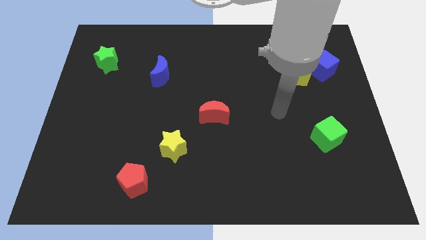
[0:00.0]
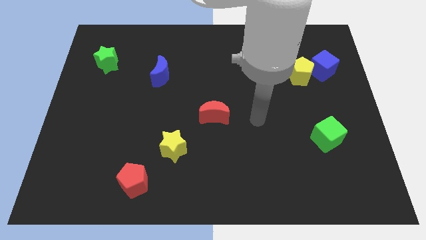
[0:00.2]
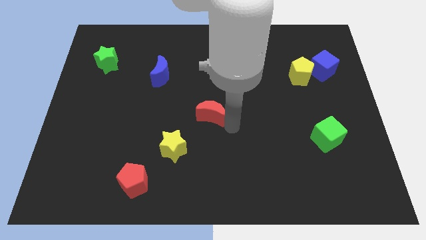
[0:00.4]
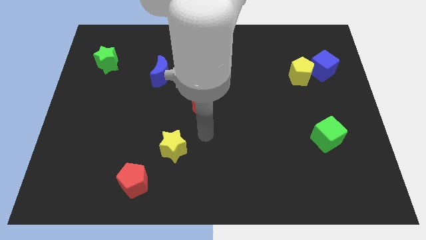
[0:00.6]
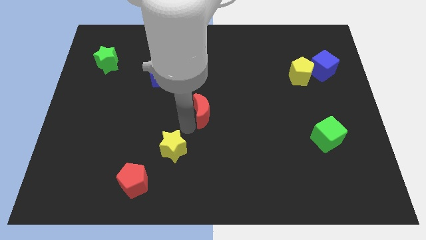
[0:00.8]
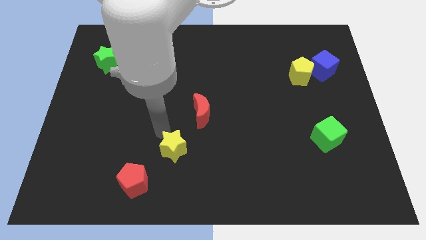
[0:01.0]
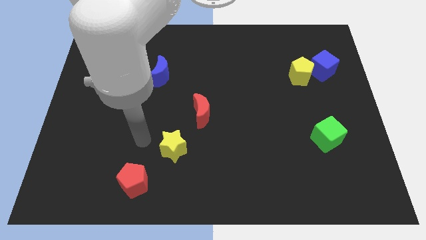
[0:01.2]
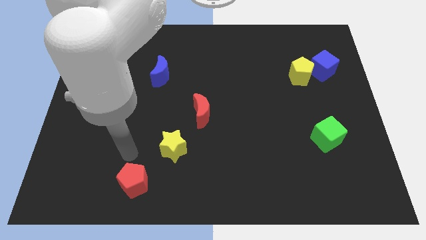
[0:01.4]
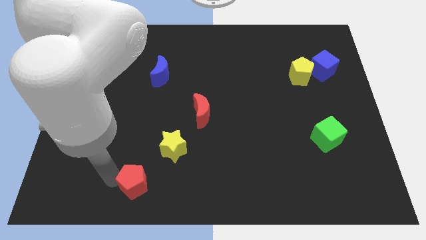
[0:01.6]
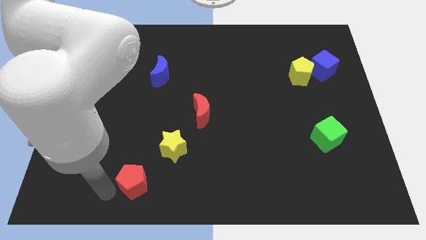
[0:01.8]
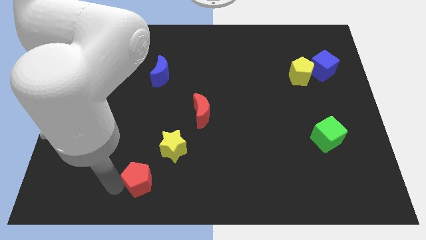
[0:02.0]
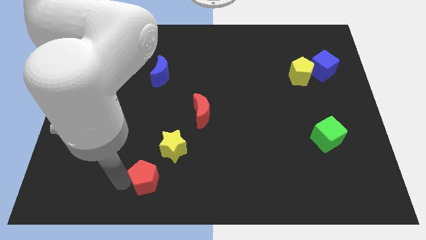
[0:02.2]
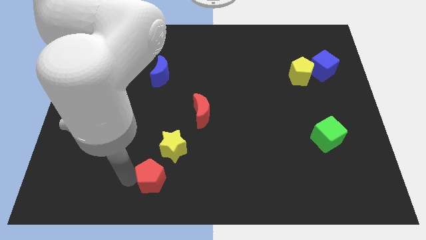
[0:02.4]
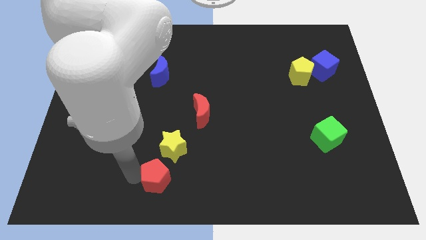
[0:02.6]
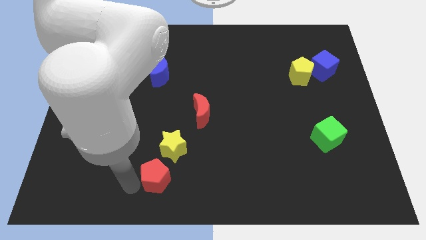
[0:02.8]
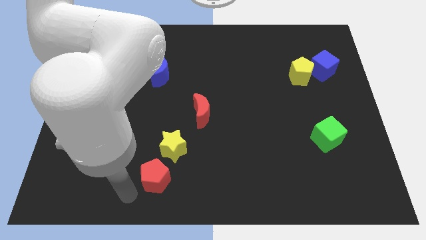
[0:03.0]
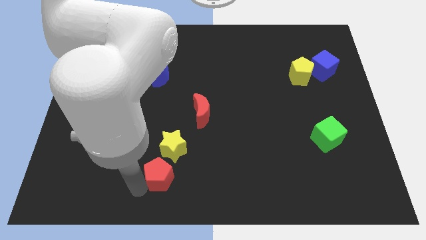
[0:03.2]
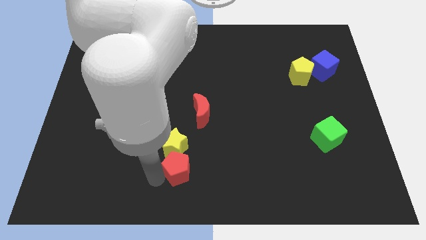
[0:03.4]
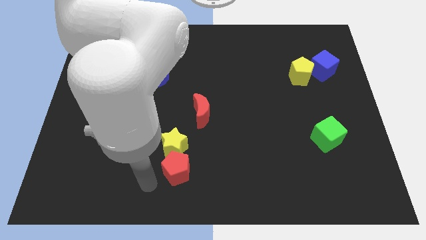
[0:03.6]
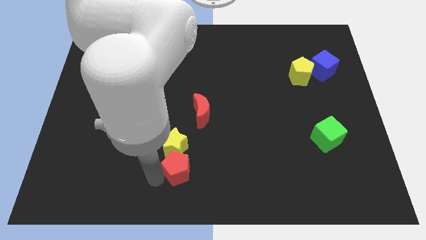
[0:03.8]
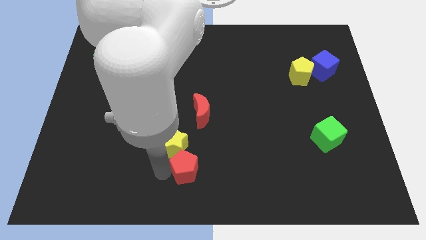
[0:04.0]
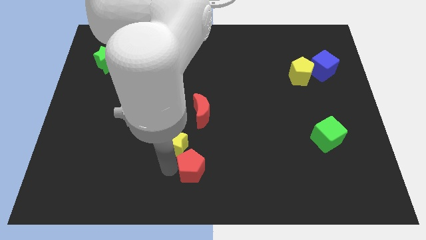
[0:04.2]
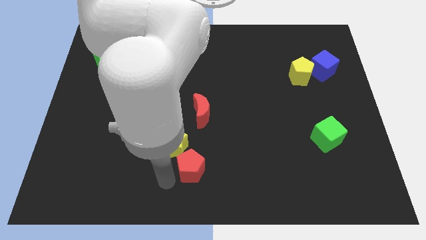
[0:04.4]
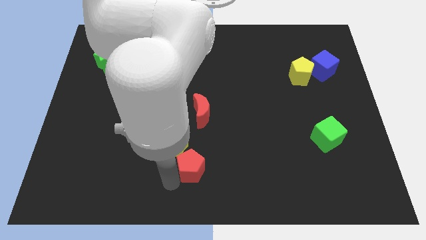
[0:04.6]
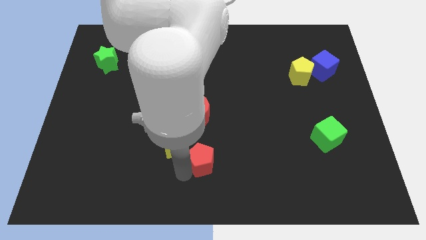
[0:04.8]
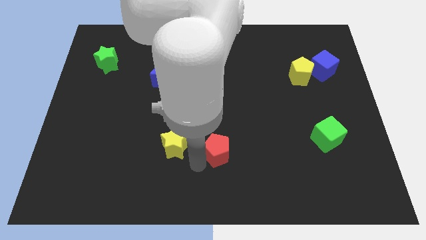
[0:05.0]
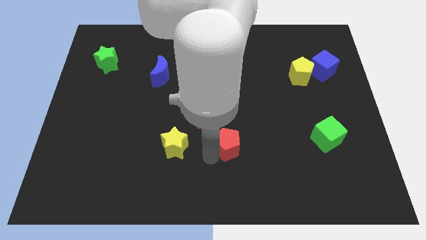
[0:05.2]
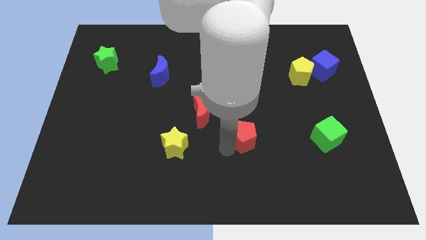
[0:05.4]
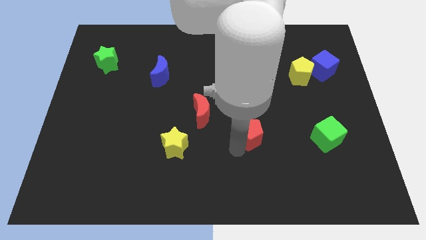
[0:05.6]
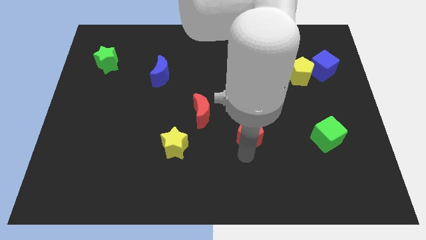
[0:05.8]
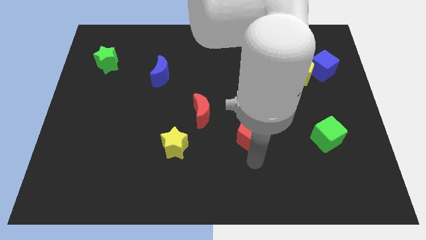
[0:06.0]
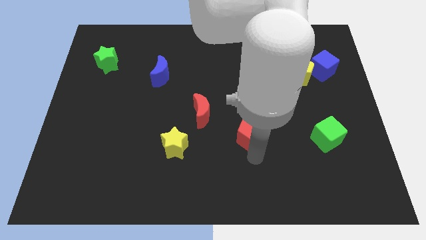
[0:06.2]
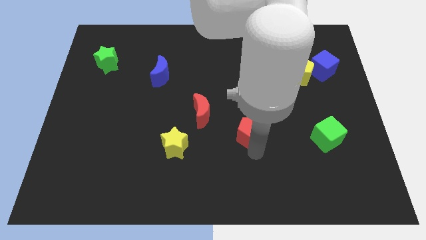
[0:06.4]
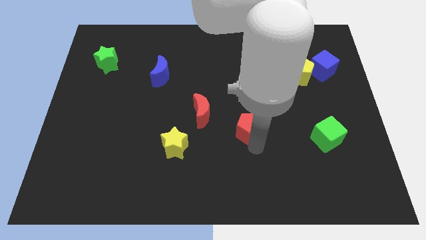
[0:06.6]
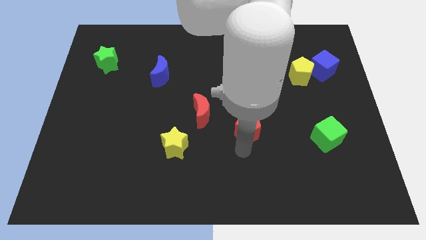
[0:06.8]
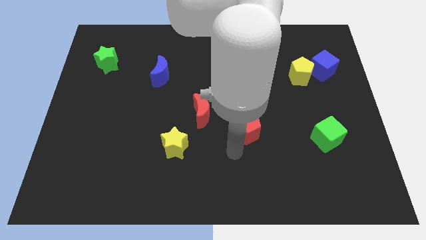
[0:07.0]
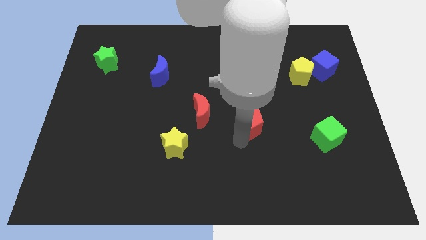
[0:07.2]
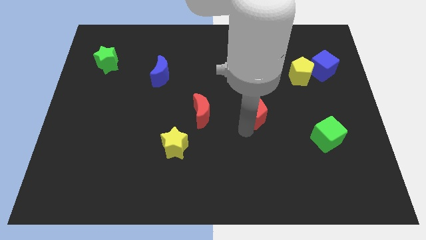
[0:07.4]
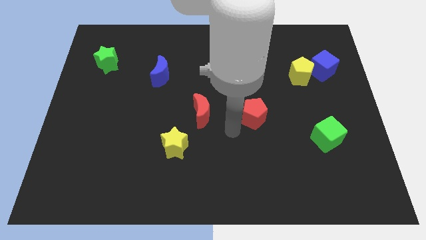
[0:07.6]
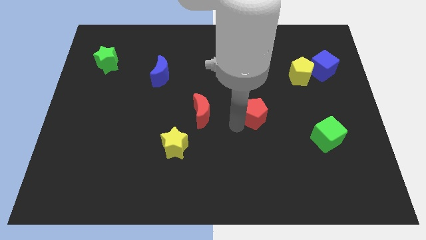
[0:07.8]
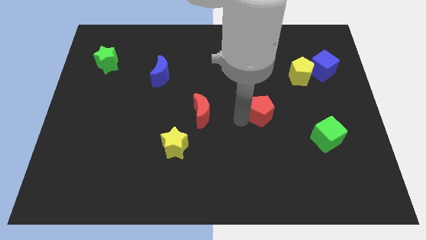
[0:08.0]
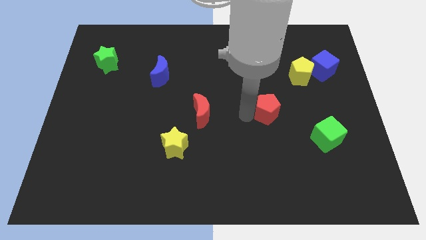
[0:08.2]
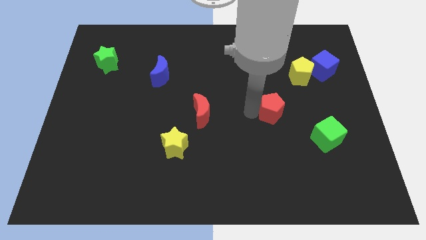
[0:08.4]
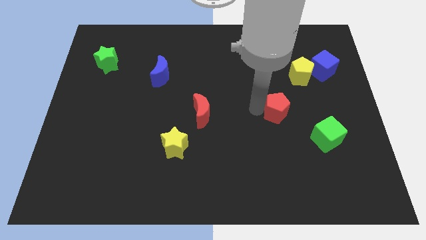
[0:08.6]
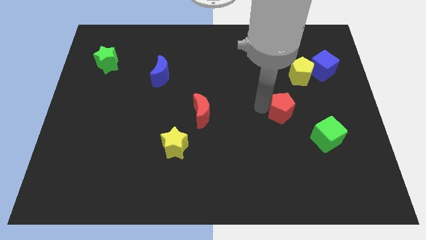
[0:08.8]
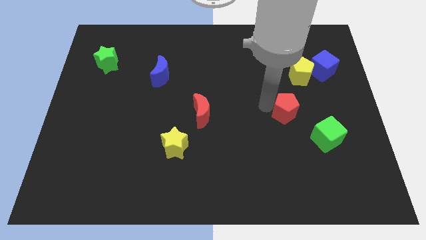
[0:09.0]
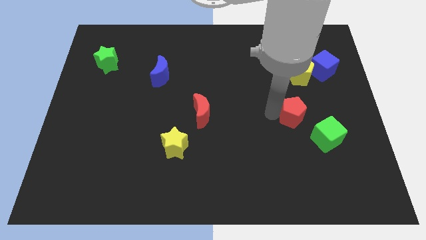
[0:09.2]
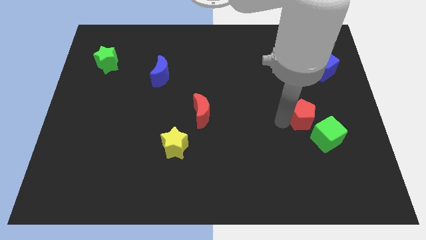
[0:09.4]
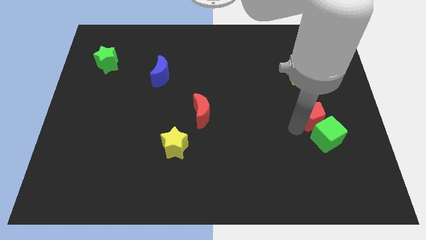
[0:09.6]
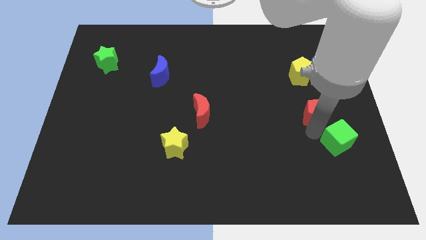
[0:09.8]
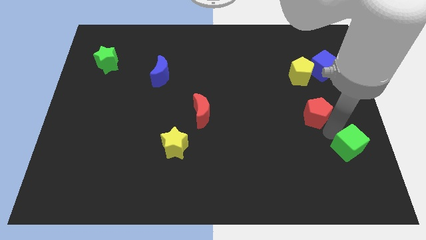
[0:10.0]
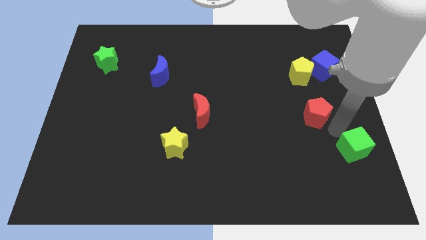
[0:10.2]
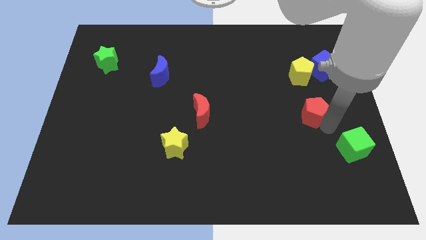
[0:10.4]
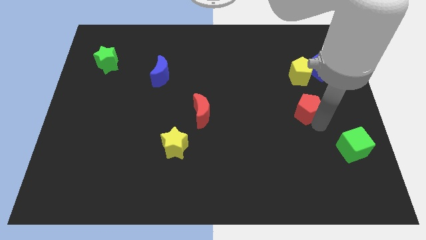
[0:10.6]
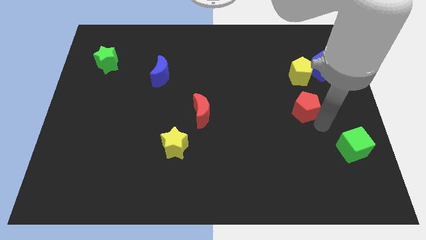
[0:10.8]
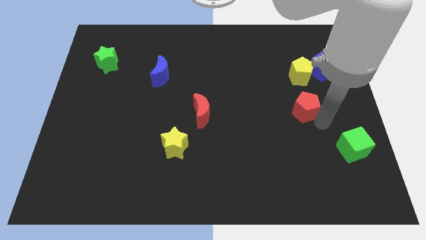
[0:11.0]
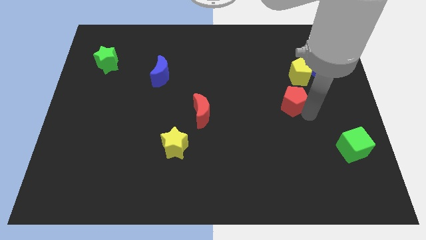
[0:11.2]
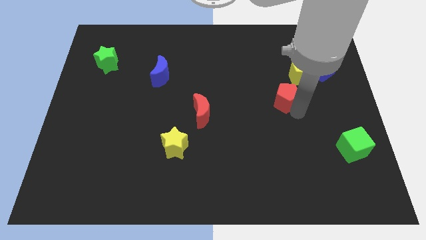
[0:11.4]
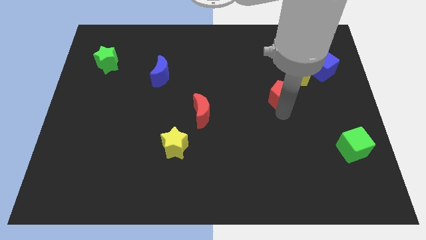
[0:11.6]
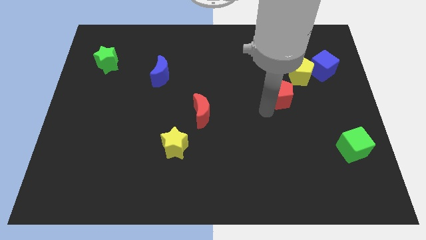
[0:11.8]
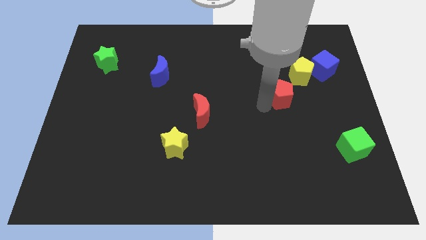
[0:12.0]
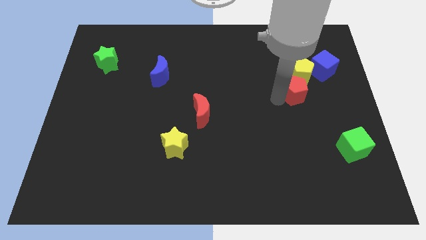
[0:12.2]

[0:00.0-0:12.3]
slide the red pentagon to the bottom left of the blue cube
